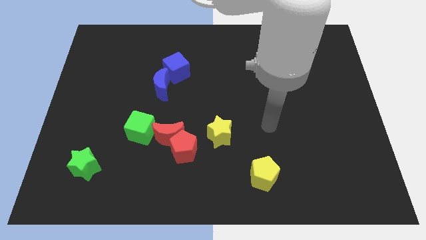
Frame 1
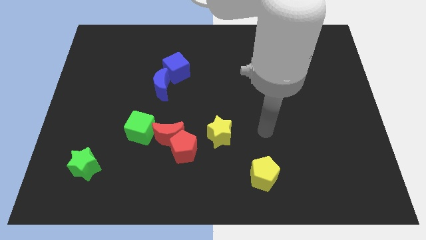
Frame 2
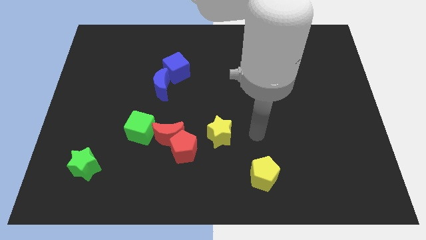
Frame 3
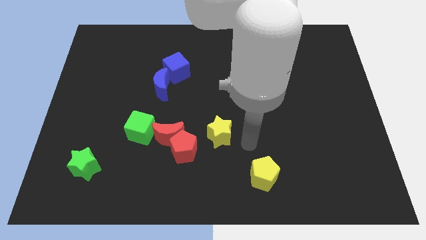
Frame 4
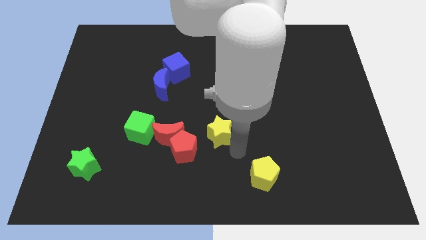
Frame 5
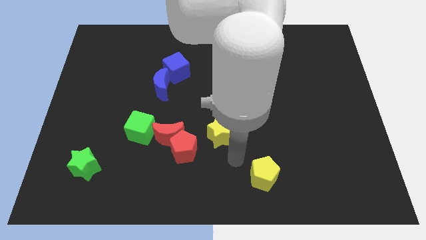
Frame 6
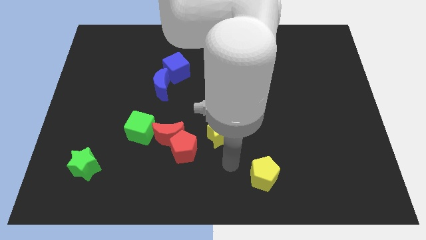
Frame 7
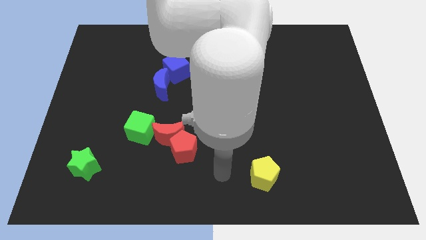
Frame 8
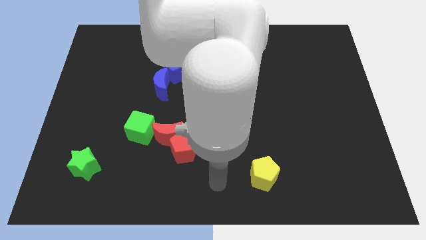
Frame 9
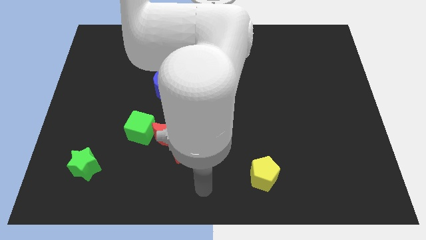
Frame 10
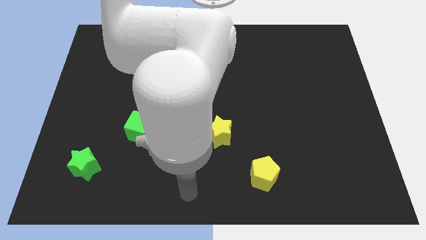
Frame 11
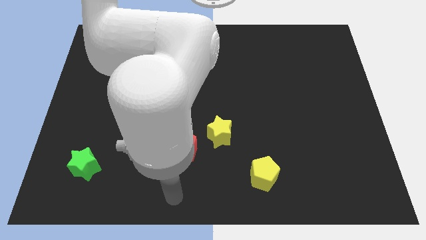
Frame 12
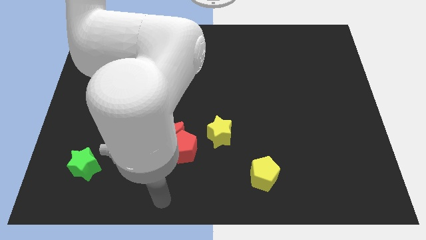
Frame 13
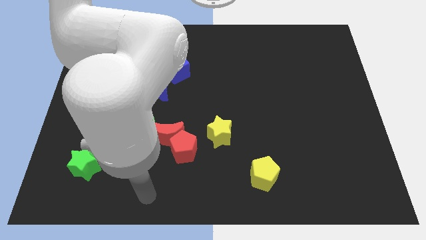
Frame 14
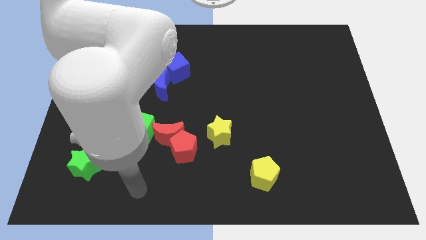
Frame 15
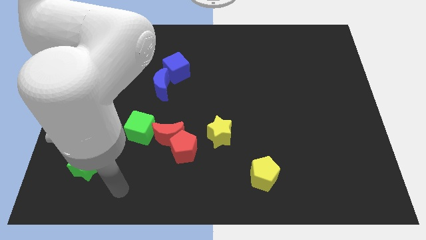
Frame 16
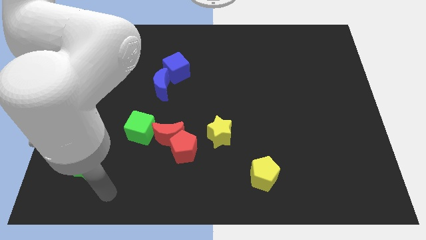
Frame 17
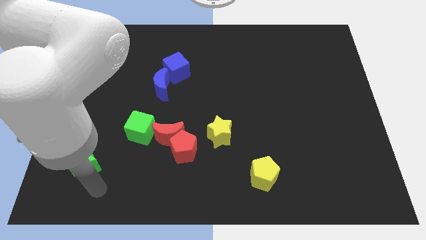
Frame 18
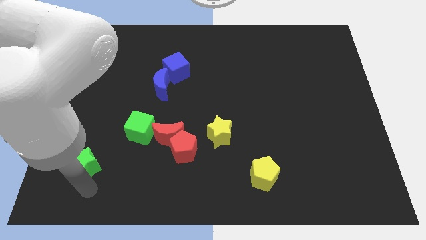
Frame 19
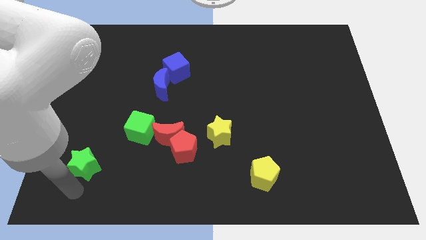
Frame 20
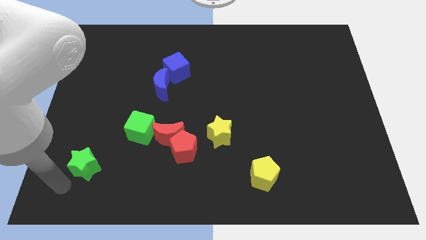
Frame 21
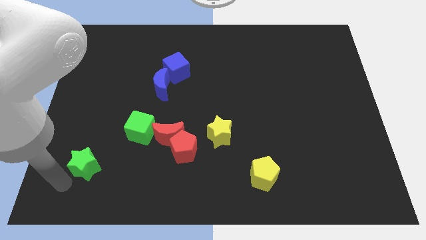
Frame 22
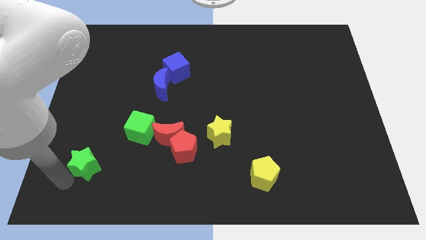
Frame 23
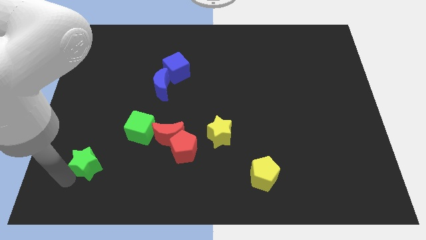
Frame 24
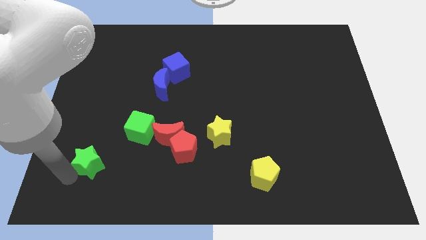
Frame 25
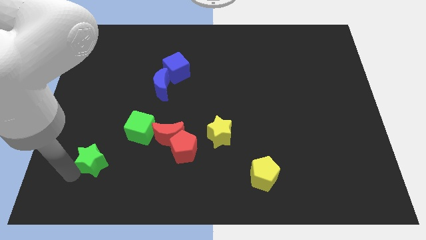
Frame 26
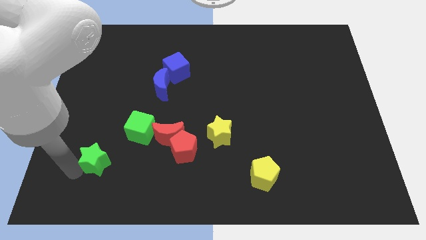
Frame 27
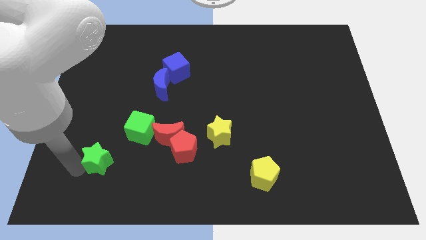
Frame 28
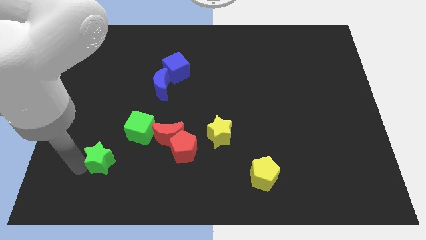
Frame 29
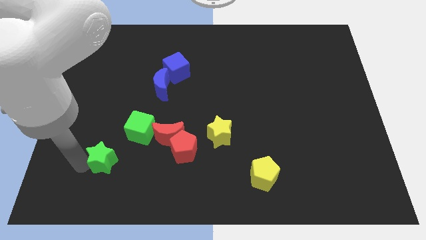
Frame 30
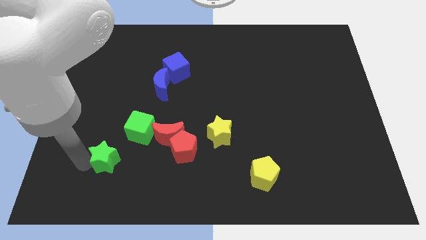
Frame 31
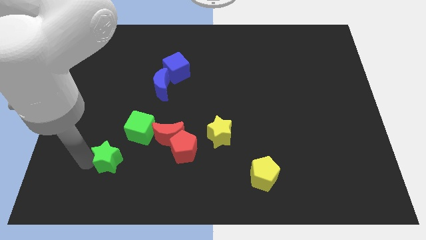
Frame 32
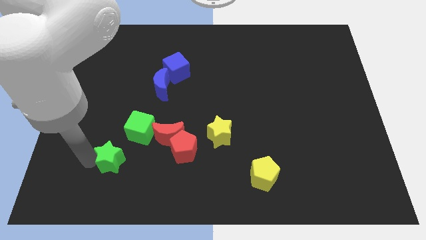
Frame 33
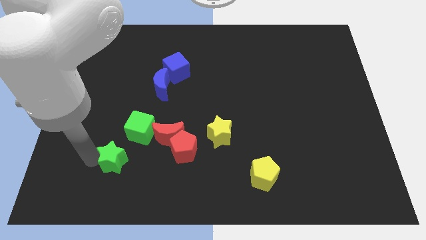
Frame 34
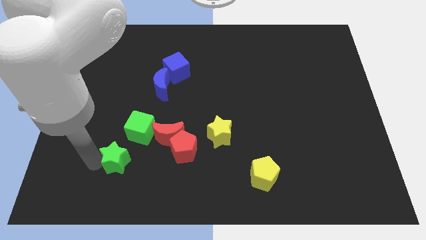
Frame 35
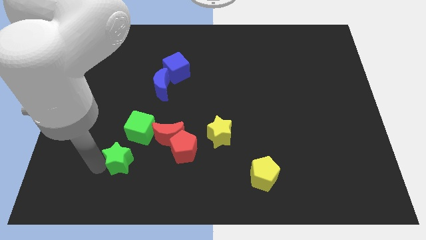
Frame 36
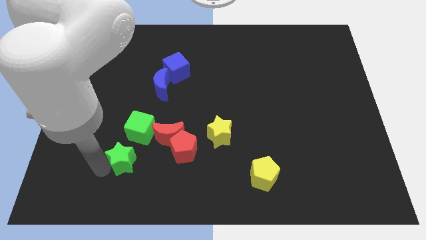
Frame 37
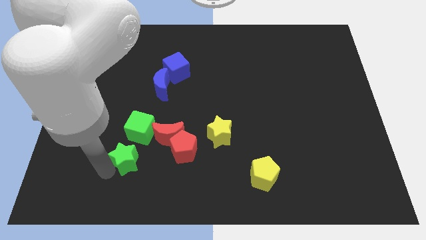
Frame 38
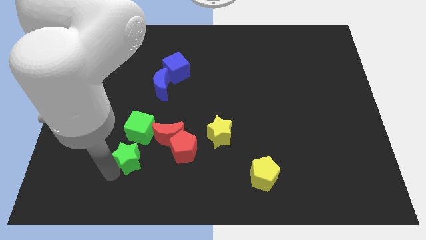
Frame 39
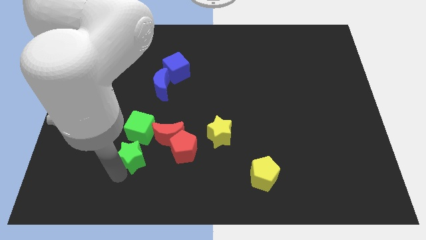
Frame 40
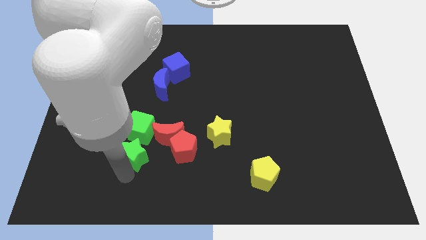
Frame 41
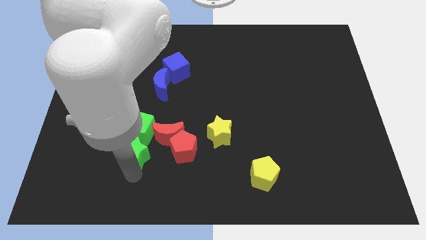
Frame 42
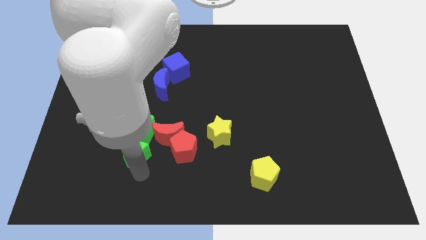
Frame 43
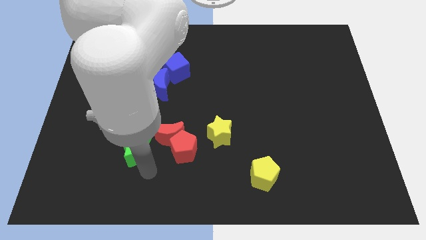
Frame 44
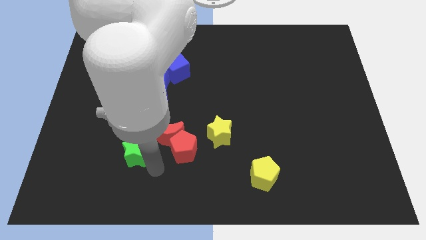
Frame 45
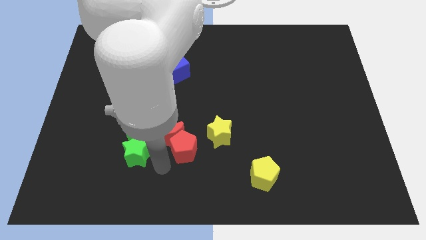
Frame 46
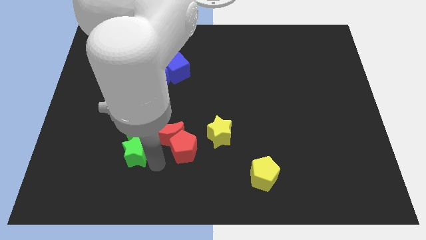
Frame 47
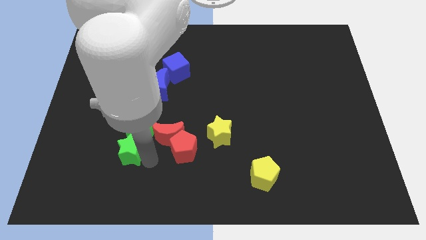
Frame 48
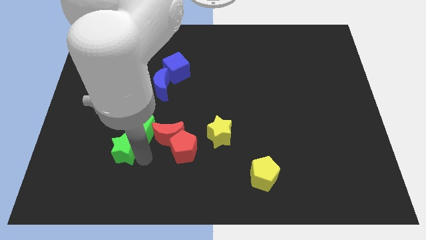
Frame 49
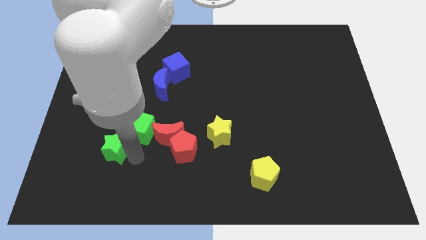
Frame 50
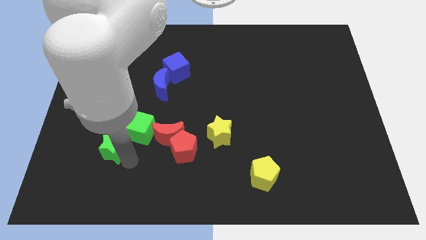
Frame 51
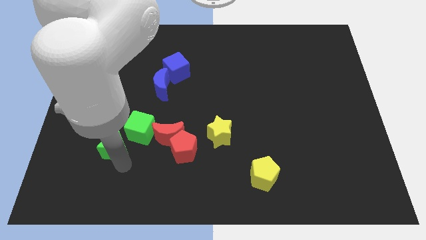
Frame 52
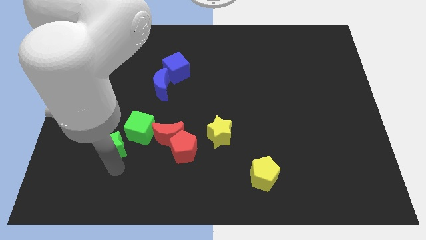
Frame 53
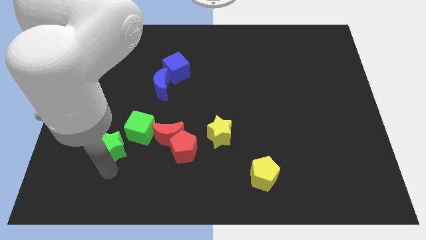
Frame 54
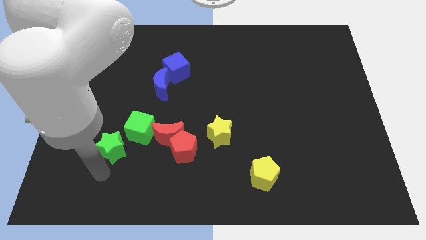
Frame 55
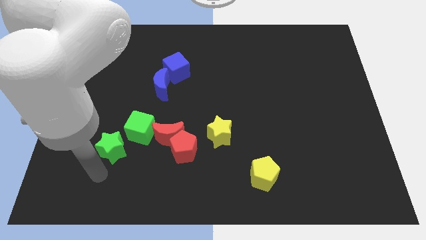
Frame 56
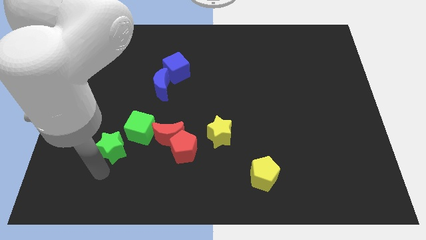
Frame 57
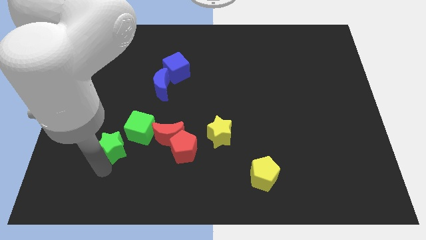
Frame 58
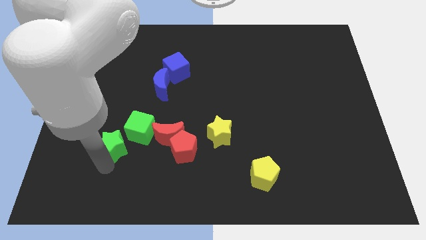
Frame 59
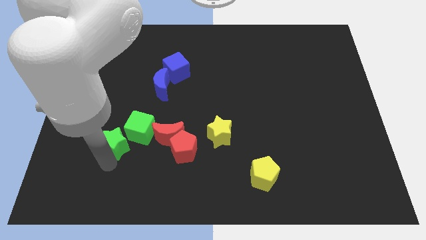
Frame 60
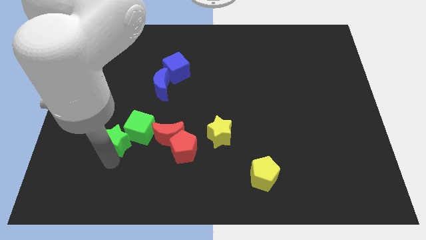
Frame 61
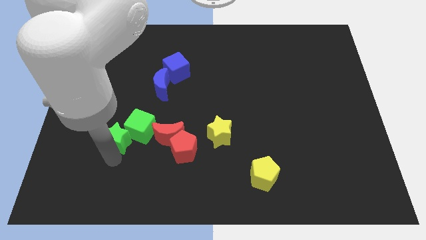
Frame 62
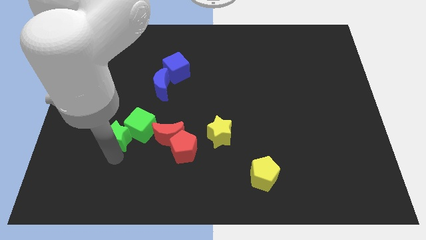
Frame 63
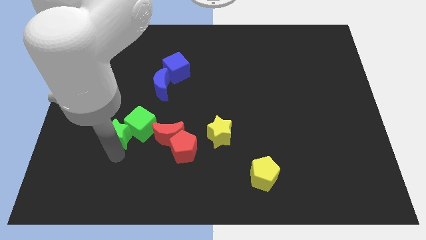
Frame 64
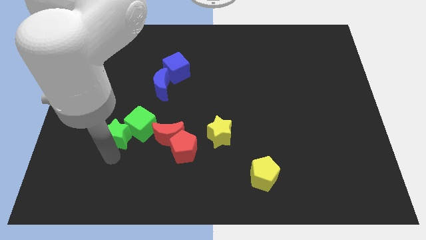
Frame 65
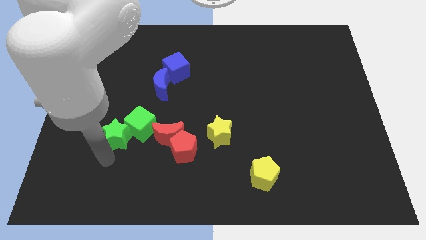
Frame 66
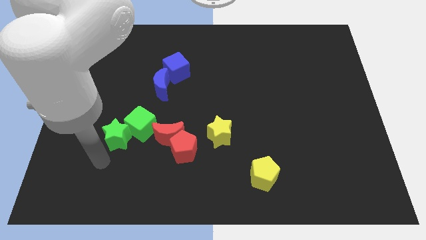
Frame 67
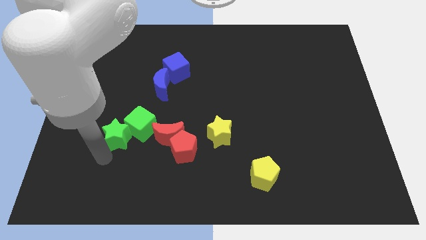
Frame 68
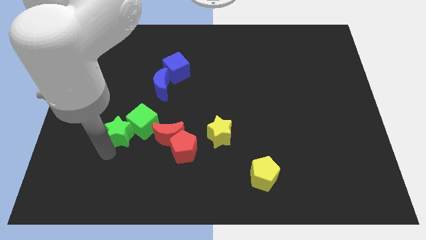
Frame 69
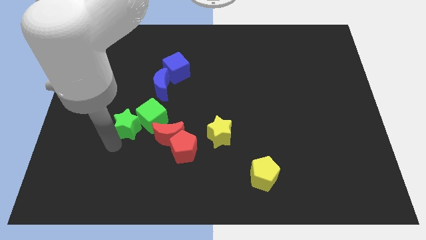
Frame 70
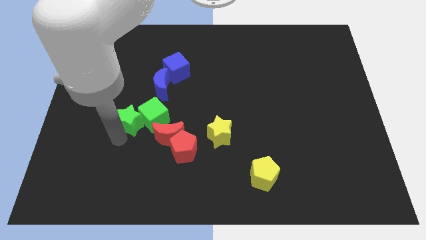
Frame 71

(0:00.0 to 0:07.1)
push the green star diagonally down and to the left of the blue moon

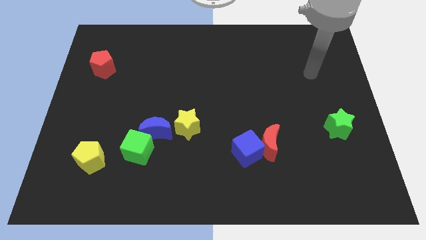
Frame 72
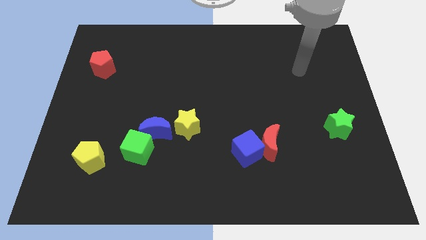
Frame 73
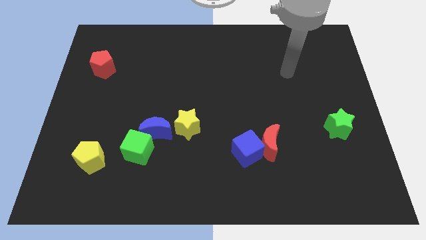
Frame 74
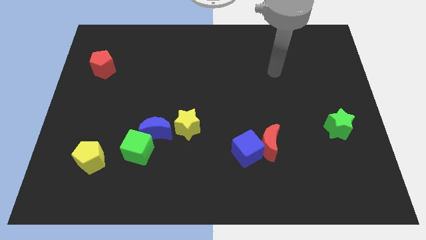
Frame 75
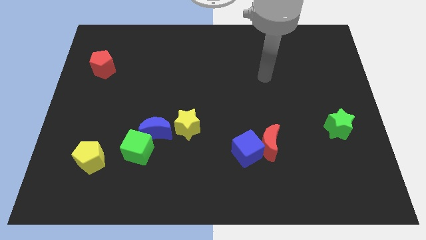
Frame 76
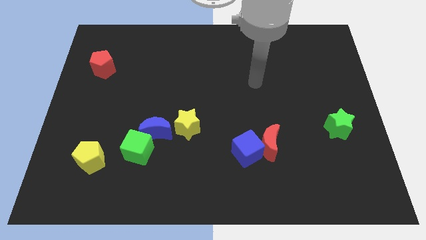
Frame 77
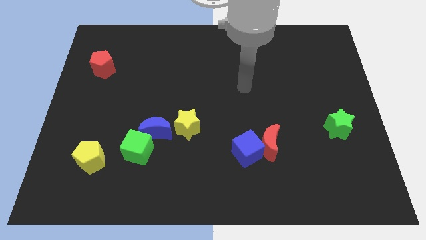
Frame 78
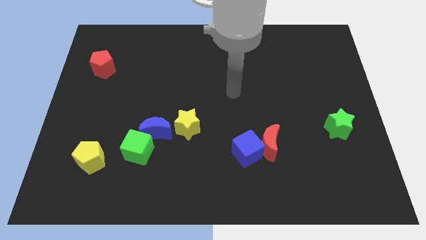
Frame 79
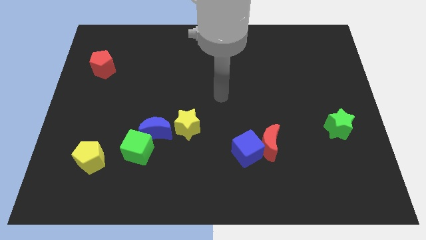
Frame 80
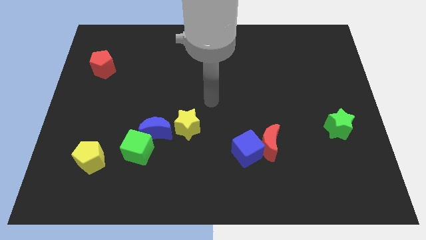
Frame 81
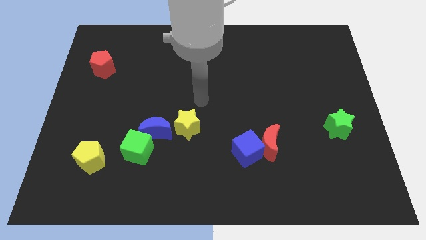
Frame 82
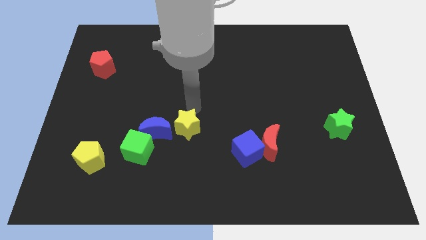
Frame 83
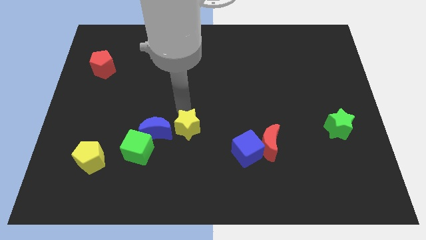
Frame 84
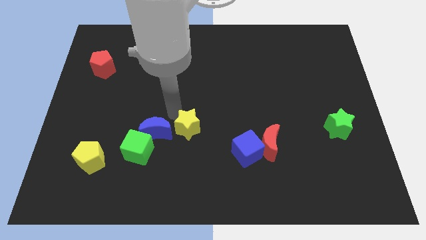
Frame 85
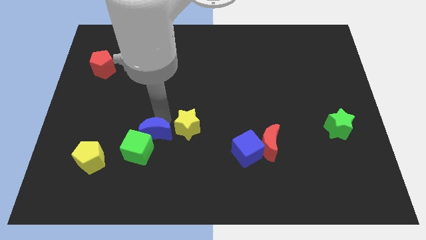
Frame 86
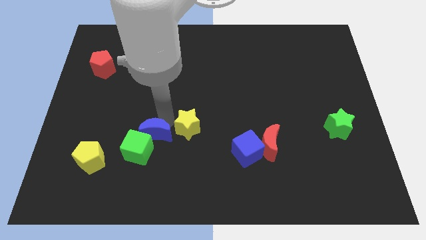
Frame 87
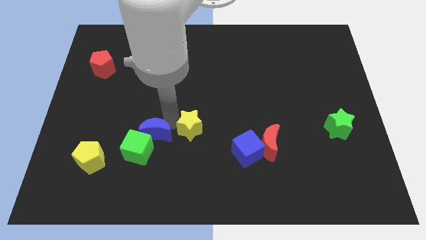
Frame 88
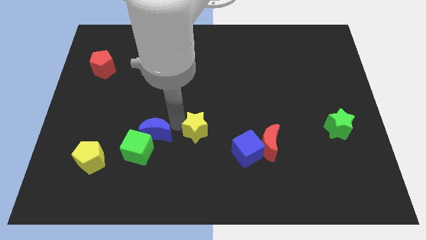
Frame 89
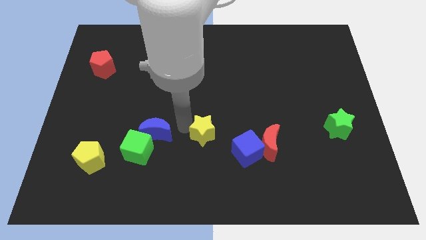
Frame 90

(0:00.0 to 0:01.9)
put the yellow star to the top left of the blue cube
